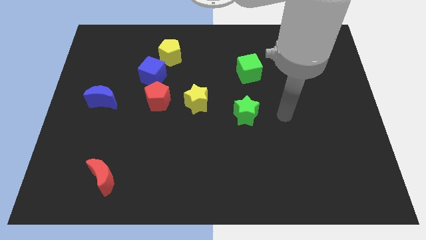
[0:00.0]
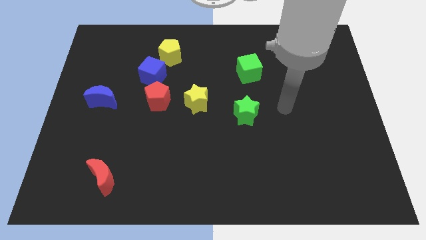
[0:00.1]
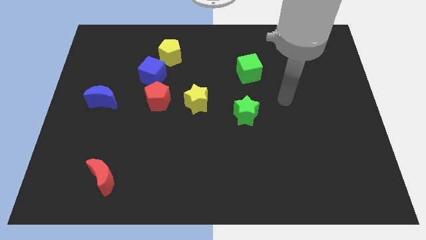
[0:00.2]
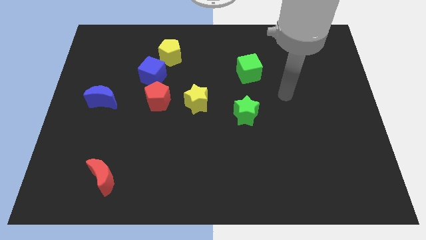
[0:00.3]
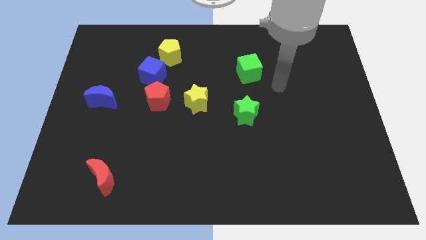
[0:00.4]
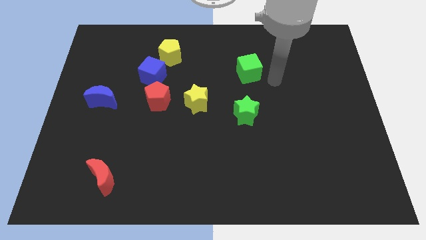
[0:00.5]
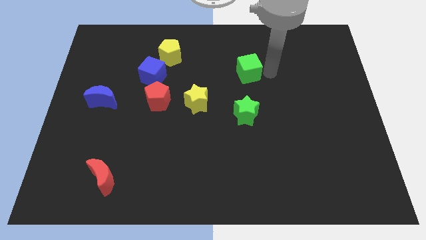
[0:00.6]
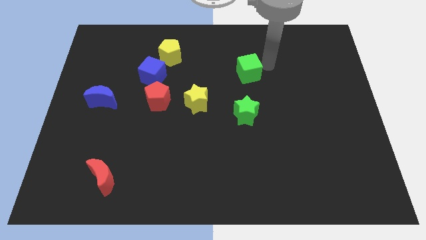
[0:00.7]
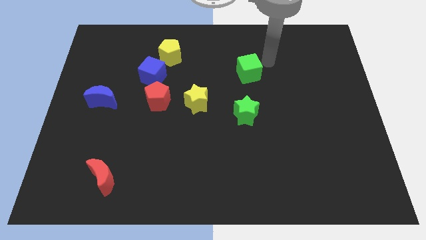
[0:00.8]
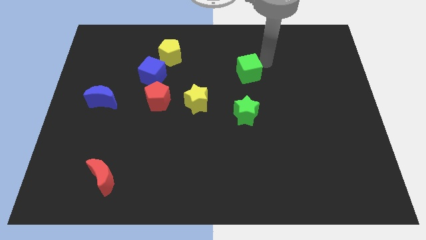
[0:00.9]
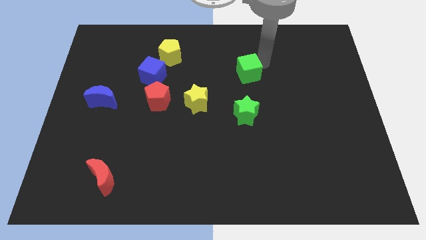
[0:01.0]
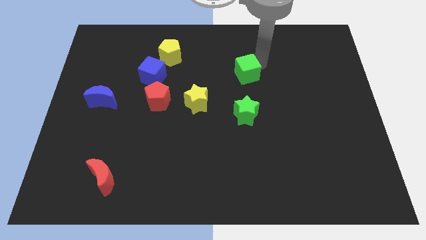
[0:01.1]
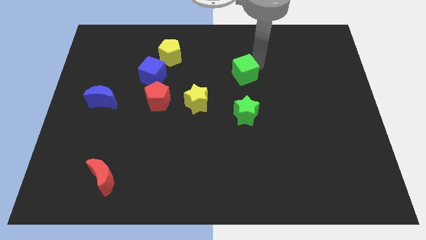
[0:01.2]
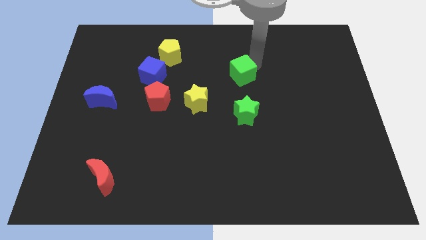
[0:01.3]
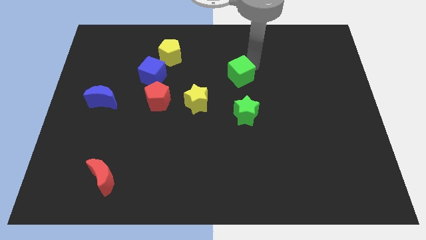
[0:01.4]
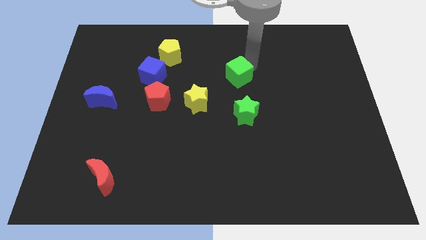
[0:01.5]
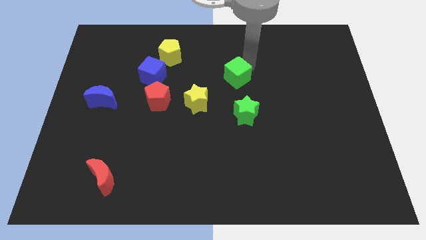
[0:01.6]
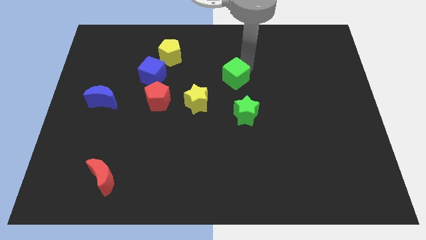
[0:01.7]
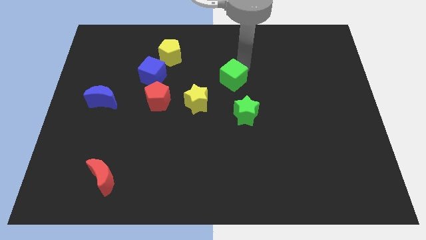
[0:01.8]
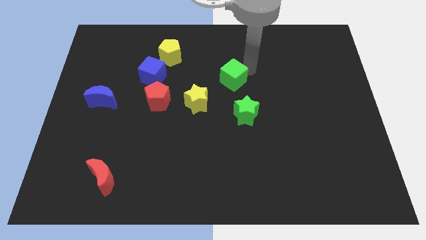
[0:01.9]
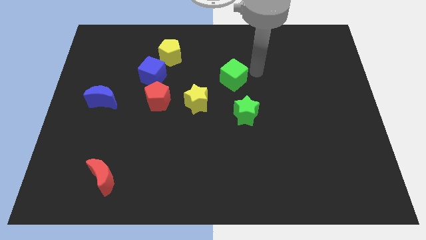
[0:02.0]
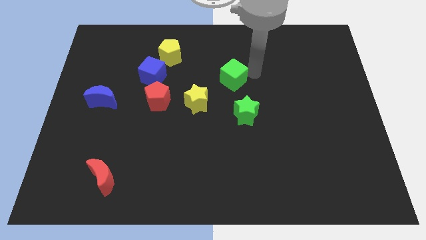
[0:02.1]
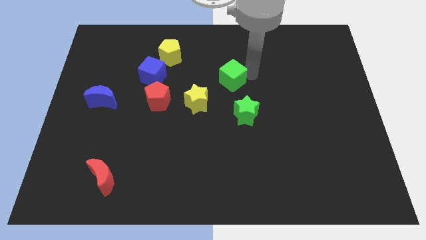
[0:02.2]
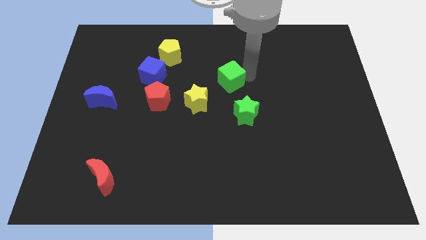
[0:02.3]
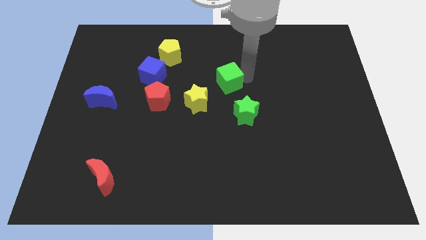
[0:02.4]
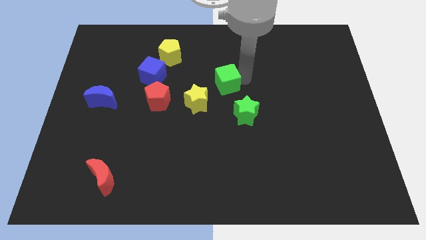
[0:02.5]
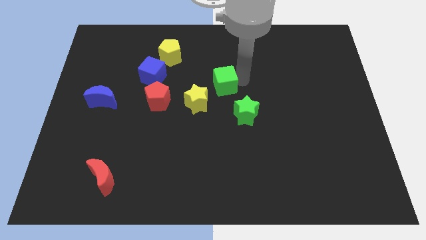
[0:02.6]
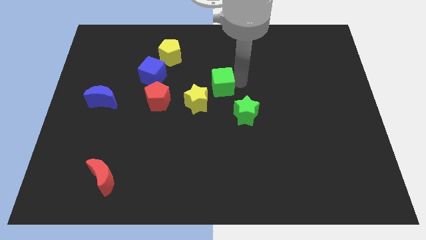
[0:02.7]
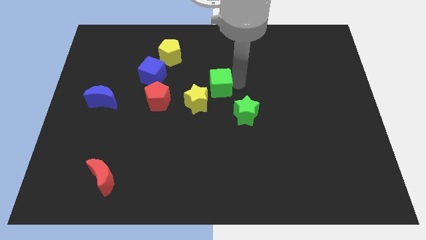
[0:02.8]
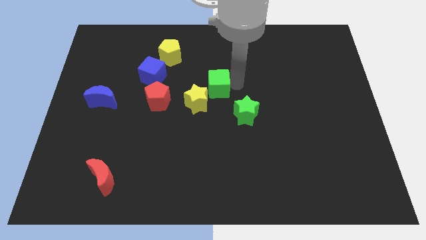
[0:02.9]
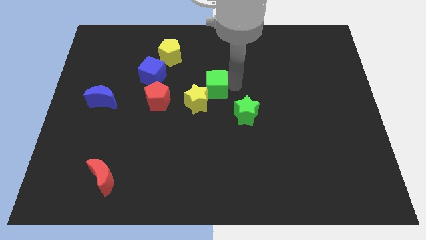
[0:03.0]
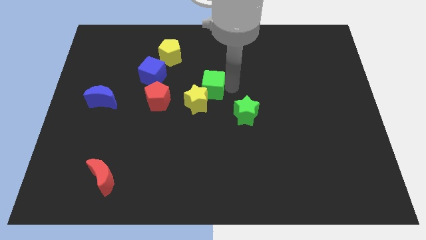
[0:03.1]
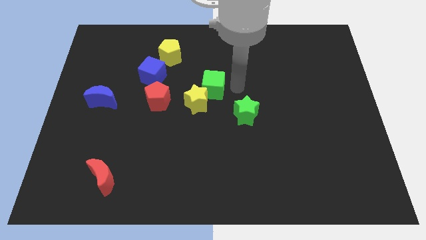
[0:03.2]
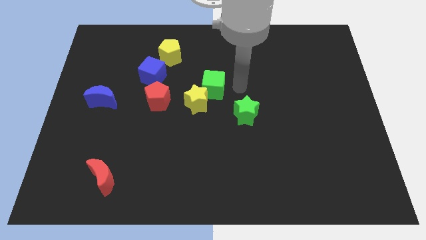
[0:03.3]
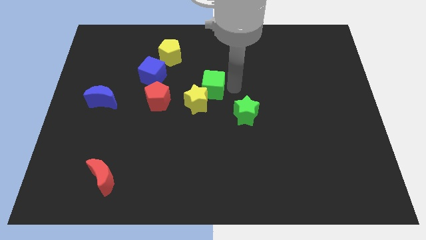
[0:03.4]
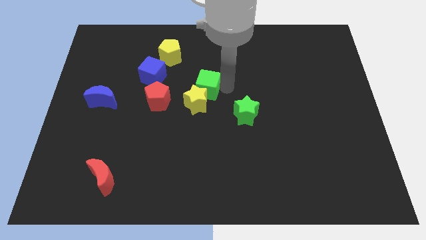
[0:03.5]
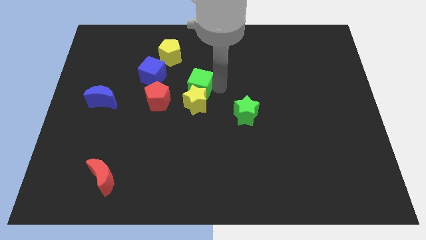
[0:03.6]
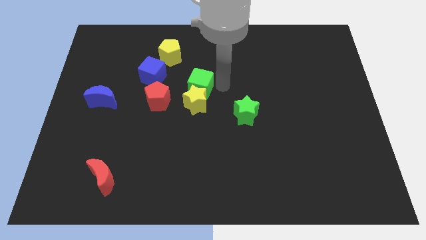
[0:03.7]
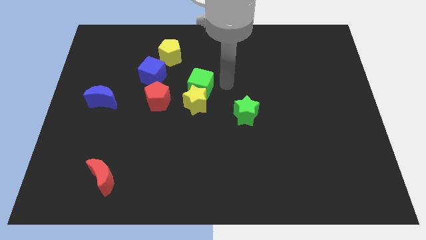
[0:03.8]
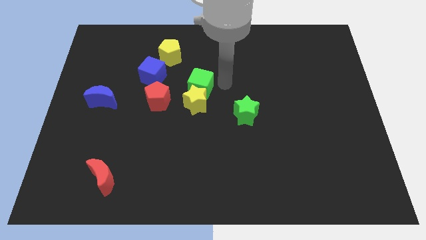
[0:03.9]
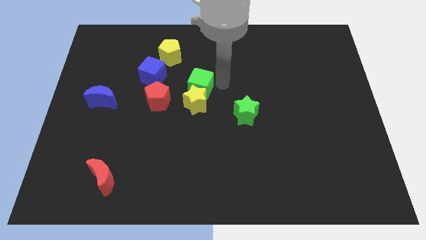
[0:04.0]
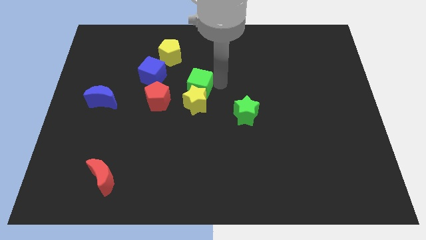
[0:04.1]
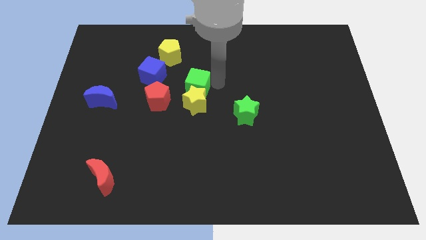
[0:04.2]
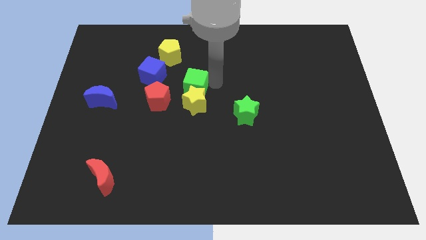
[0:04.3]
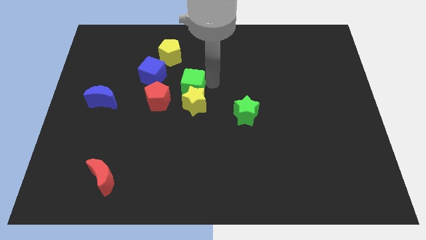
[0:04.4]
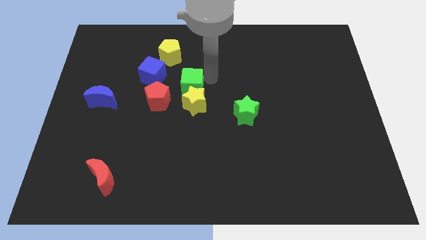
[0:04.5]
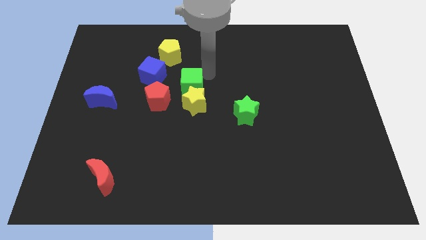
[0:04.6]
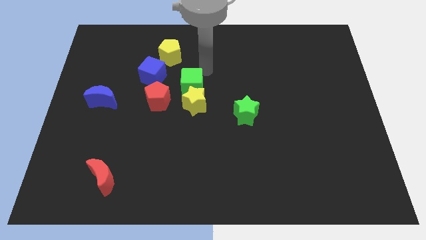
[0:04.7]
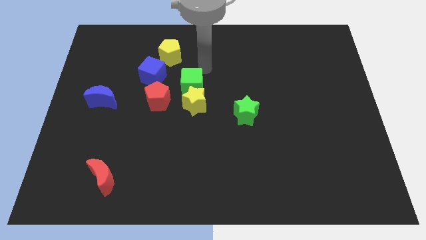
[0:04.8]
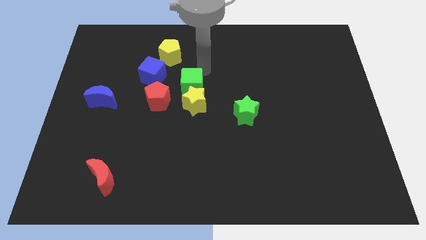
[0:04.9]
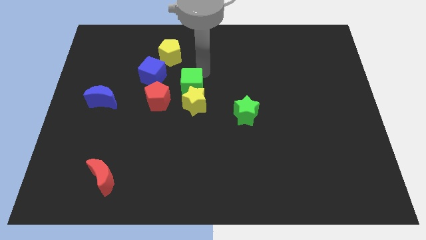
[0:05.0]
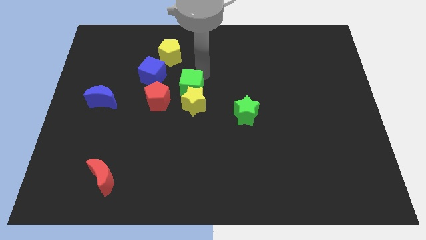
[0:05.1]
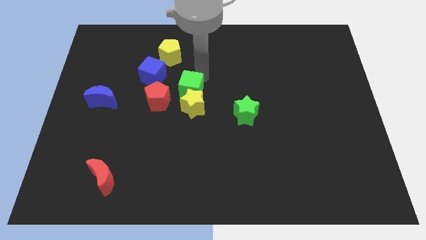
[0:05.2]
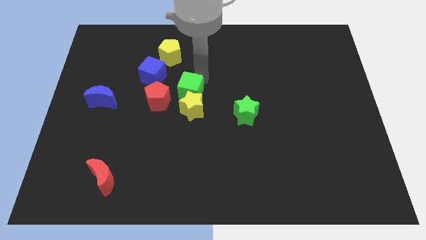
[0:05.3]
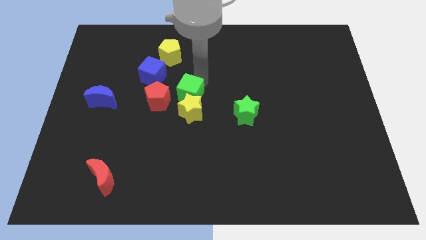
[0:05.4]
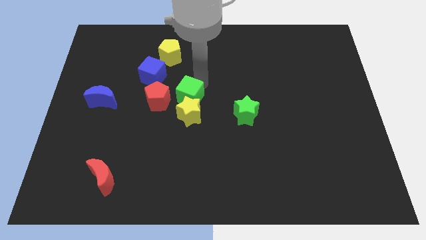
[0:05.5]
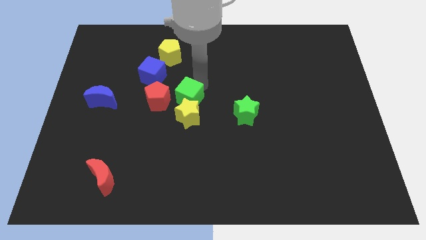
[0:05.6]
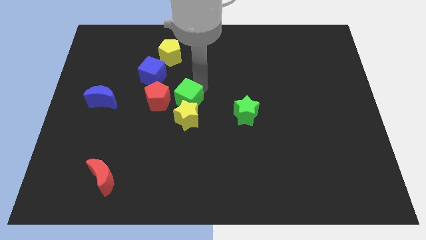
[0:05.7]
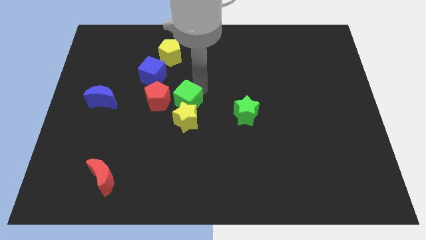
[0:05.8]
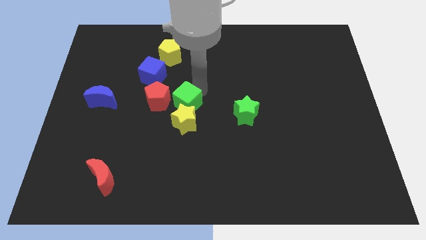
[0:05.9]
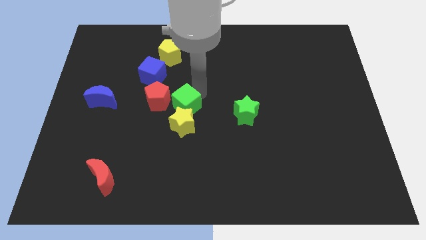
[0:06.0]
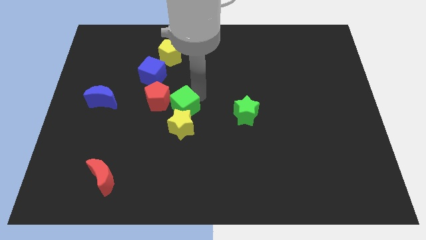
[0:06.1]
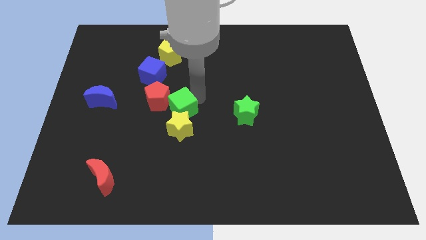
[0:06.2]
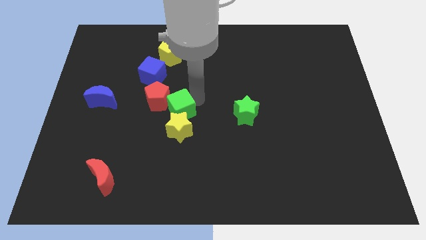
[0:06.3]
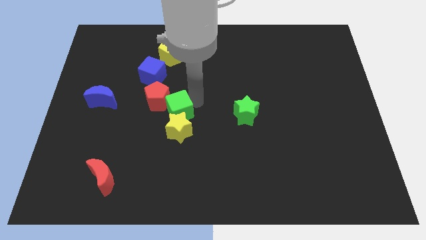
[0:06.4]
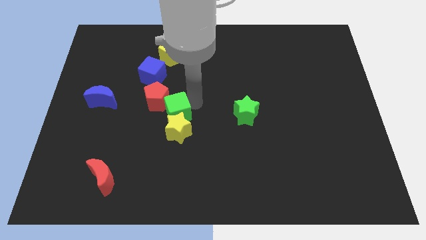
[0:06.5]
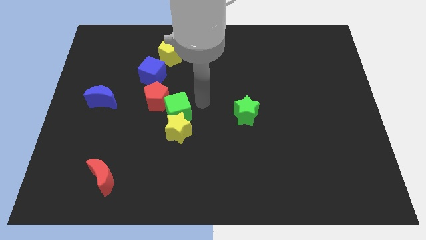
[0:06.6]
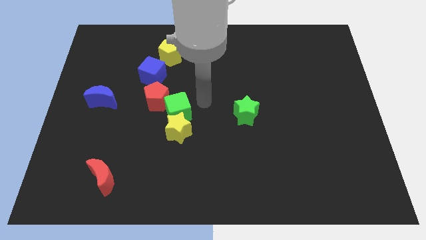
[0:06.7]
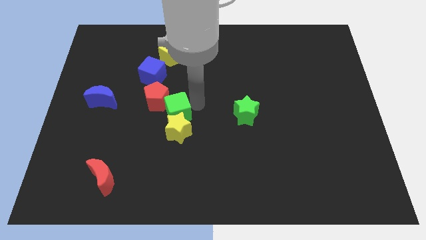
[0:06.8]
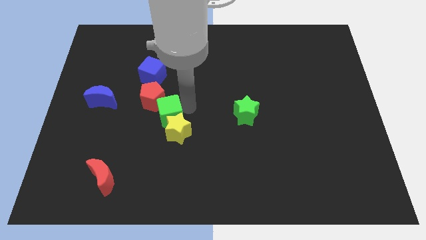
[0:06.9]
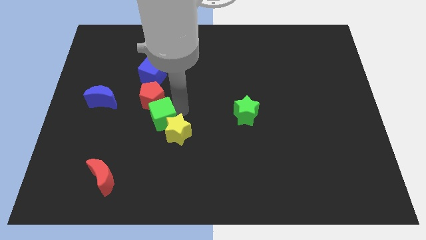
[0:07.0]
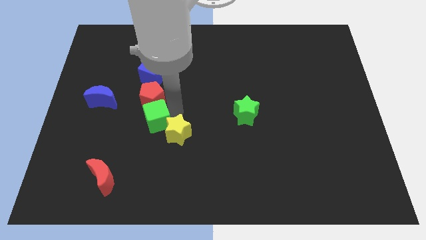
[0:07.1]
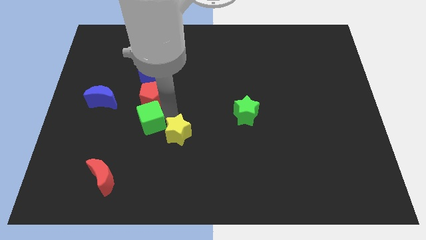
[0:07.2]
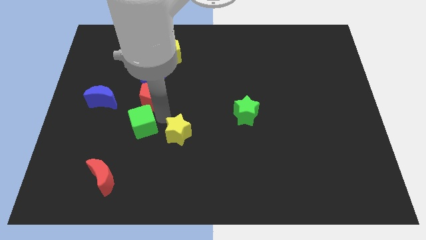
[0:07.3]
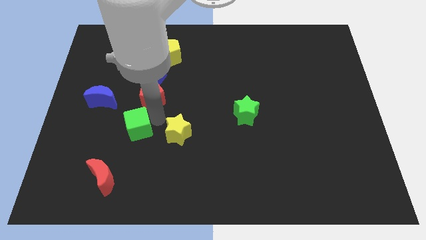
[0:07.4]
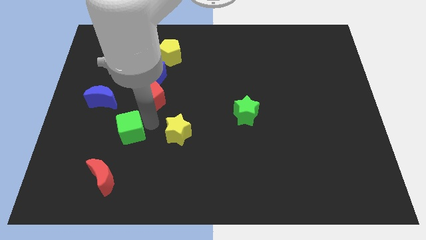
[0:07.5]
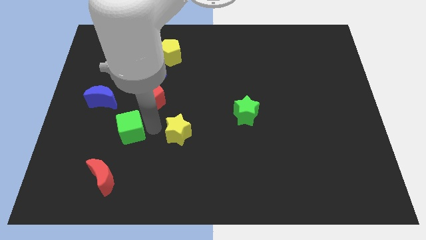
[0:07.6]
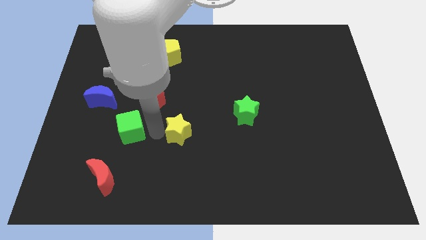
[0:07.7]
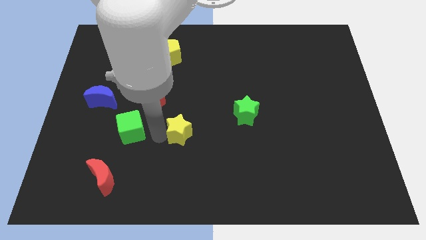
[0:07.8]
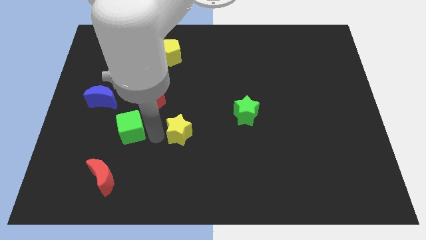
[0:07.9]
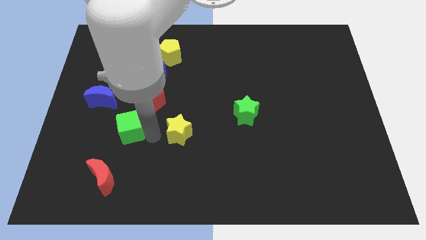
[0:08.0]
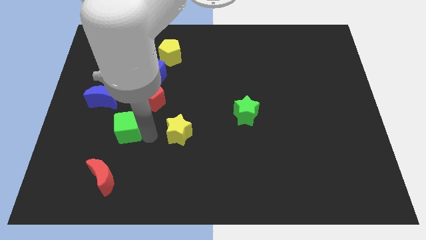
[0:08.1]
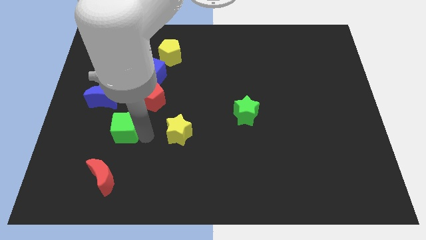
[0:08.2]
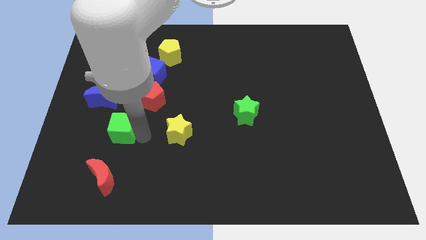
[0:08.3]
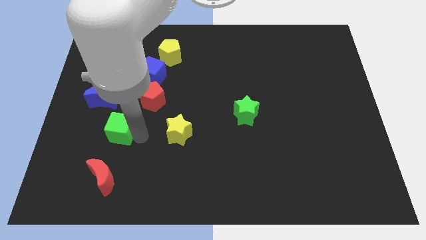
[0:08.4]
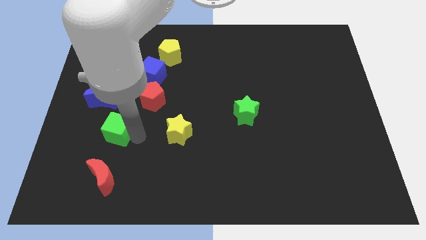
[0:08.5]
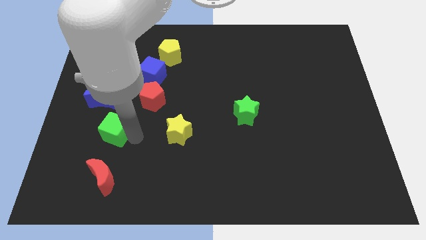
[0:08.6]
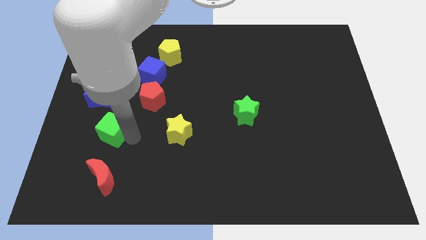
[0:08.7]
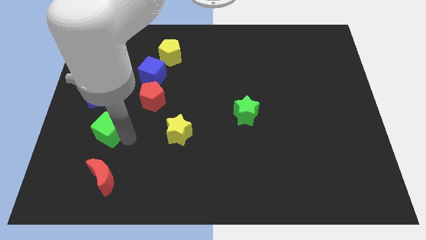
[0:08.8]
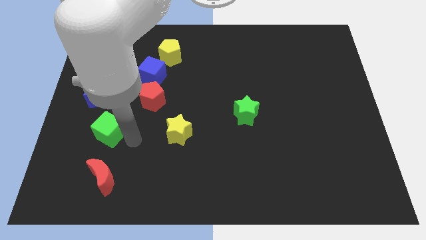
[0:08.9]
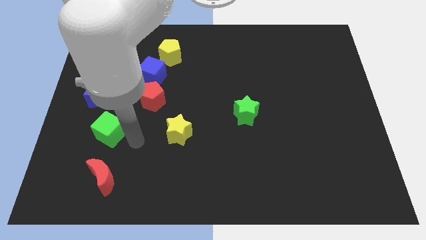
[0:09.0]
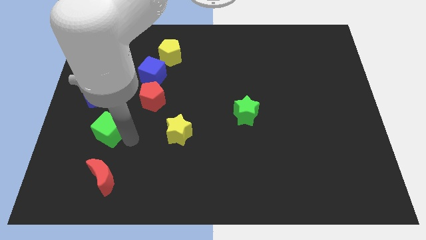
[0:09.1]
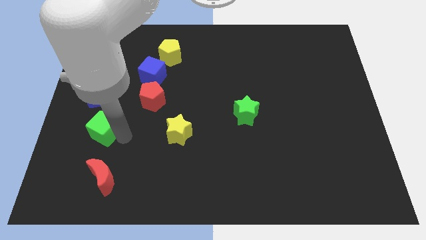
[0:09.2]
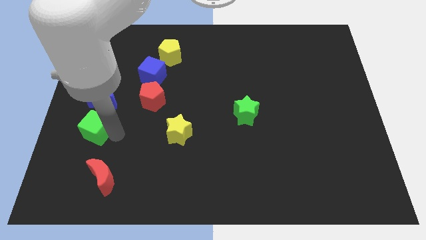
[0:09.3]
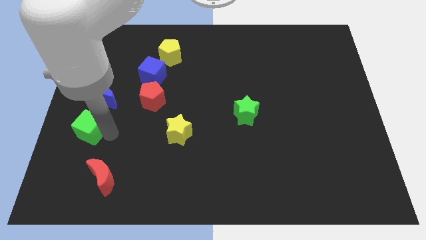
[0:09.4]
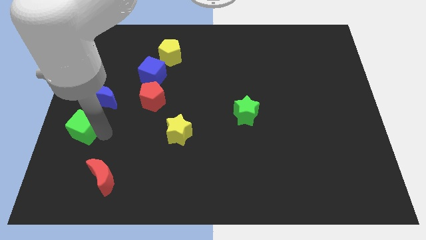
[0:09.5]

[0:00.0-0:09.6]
push the green cube to the left side of the board
